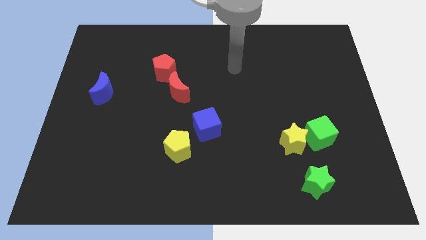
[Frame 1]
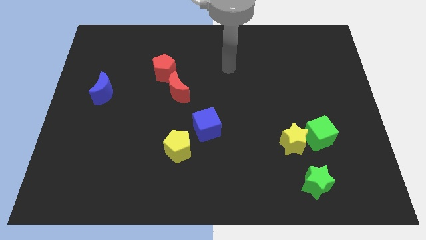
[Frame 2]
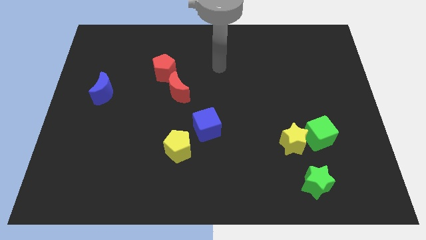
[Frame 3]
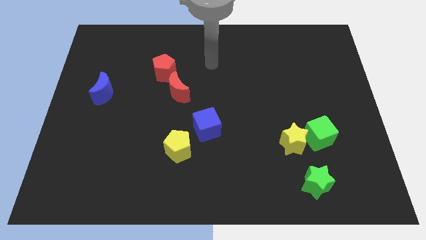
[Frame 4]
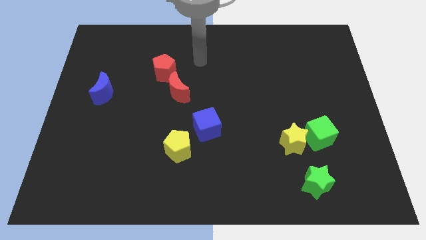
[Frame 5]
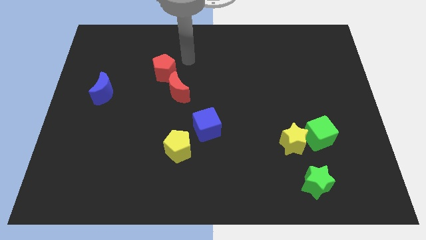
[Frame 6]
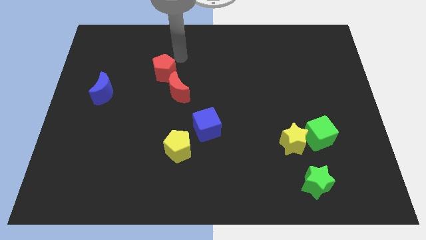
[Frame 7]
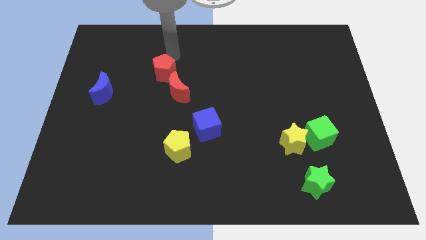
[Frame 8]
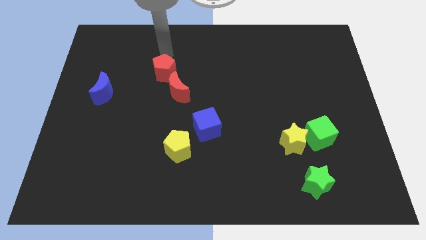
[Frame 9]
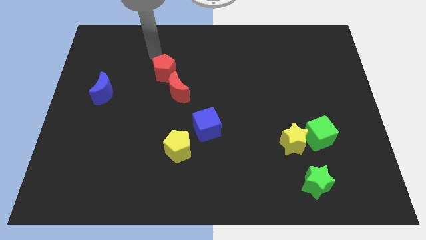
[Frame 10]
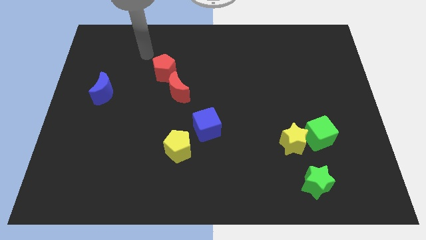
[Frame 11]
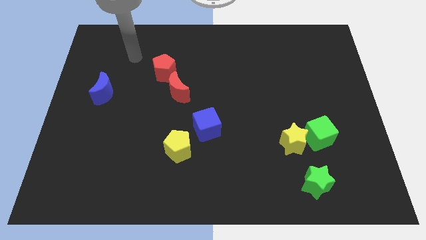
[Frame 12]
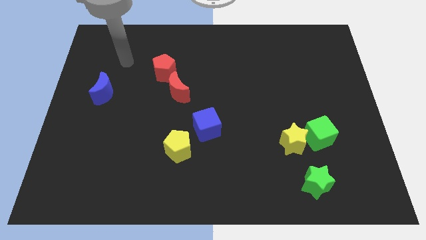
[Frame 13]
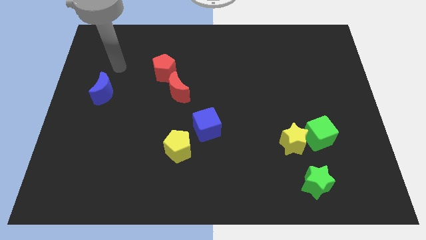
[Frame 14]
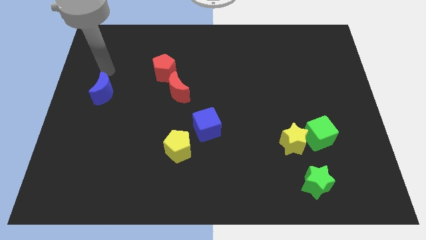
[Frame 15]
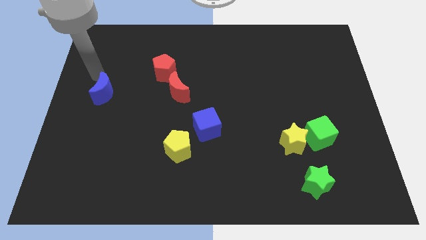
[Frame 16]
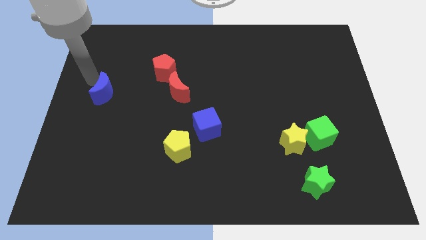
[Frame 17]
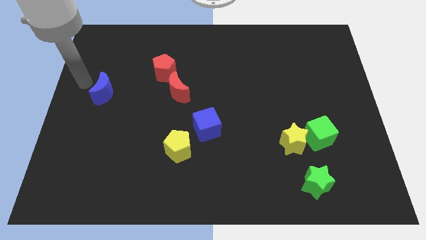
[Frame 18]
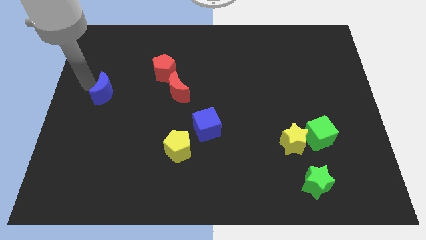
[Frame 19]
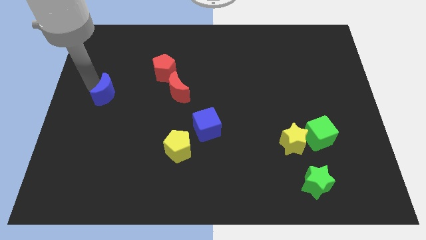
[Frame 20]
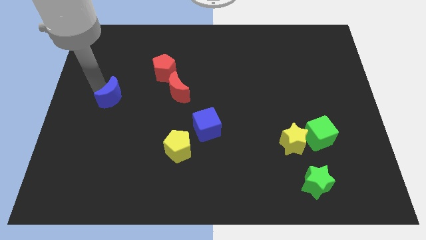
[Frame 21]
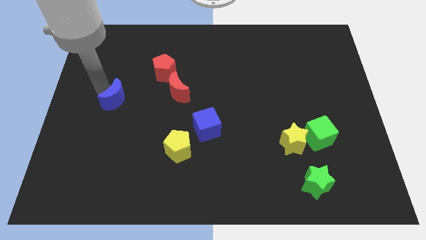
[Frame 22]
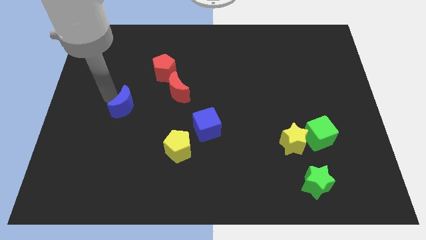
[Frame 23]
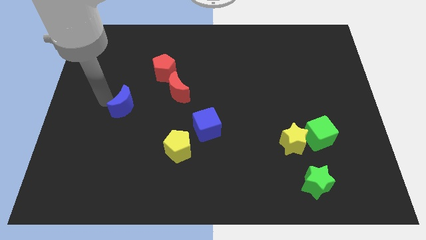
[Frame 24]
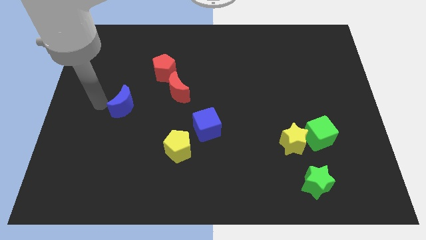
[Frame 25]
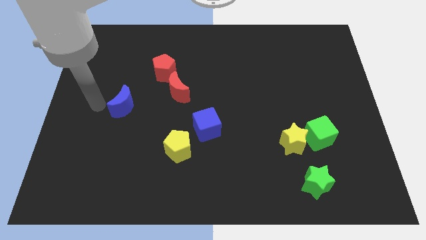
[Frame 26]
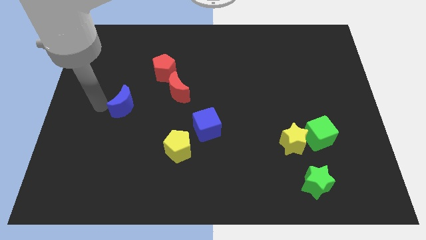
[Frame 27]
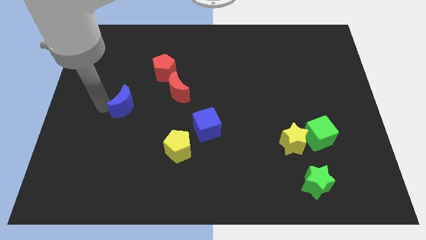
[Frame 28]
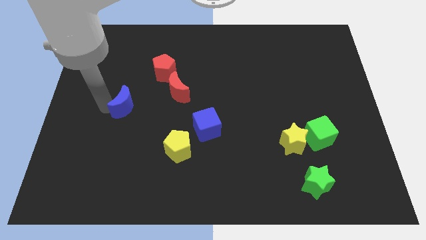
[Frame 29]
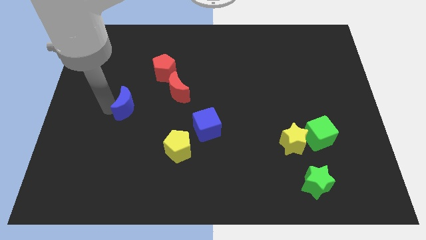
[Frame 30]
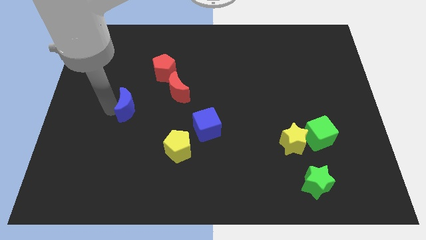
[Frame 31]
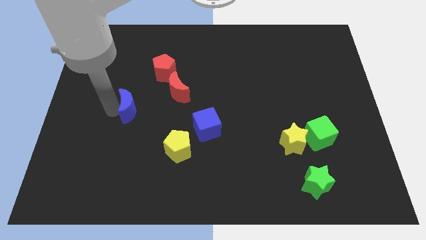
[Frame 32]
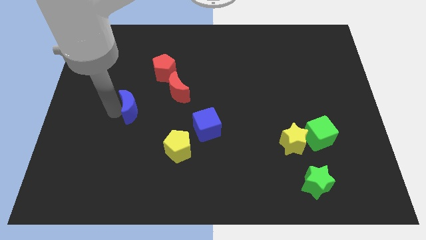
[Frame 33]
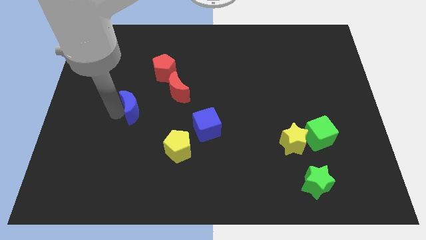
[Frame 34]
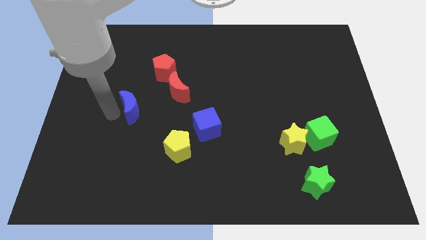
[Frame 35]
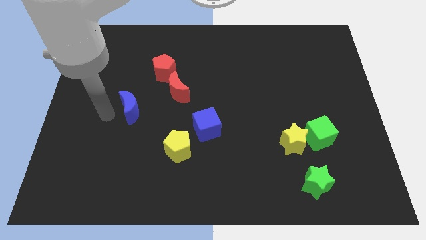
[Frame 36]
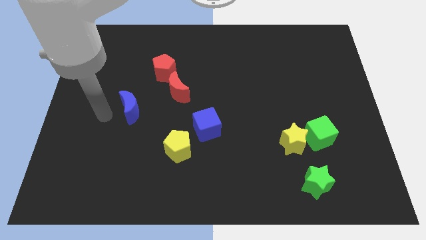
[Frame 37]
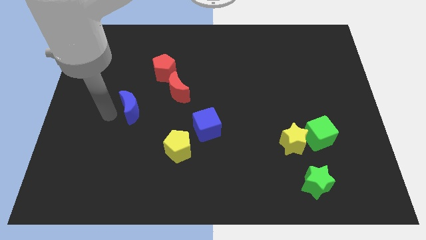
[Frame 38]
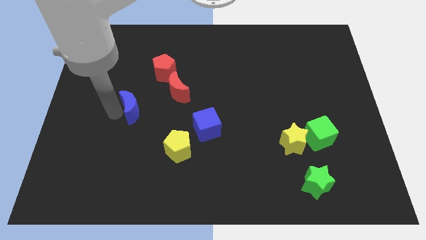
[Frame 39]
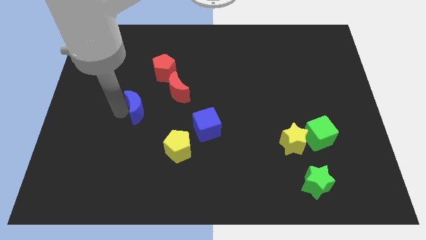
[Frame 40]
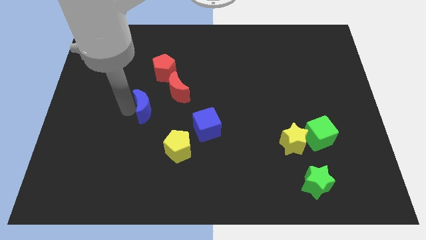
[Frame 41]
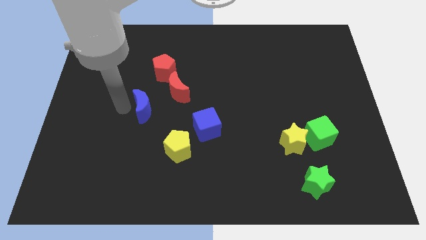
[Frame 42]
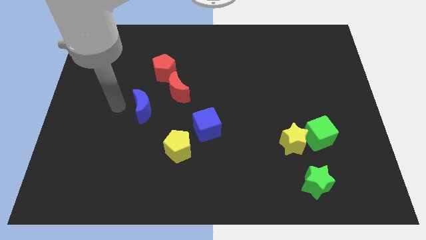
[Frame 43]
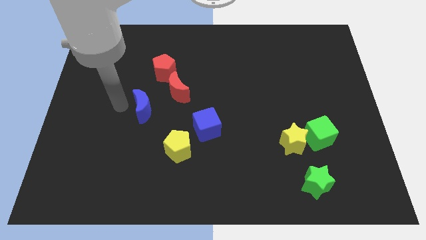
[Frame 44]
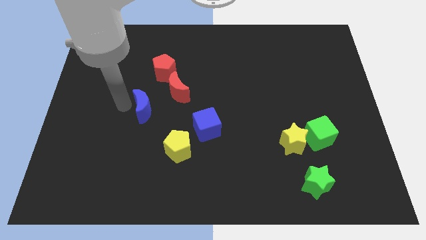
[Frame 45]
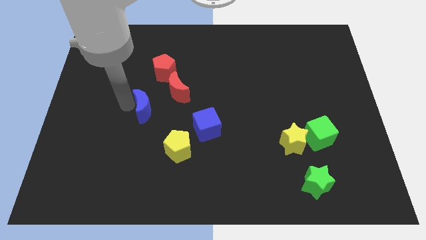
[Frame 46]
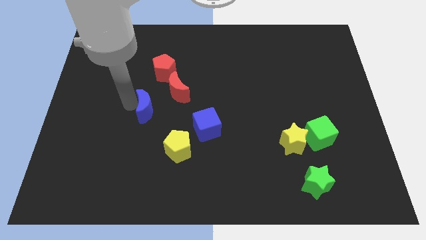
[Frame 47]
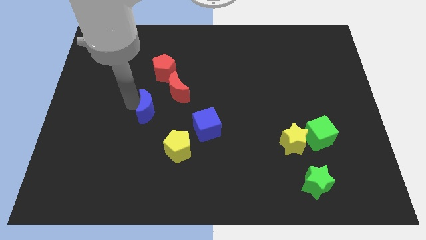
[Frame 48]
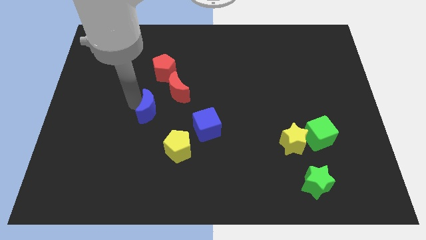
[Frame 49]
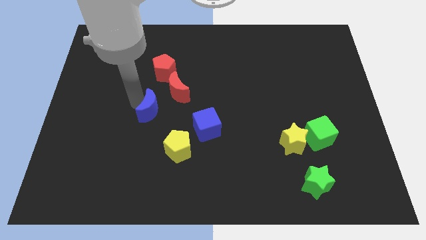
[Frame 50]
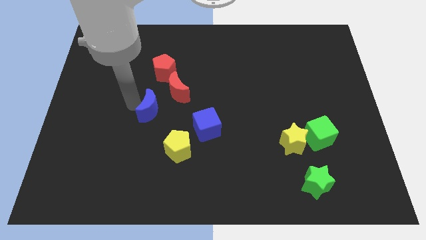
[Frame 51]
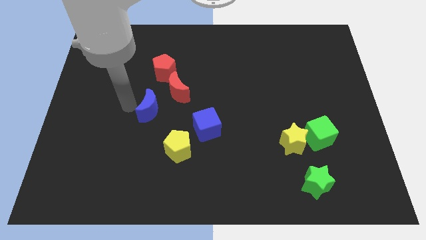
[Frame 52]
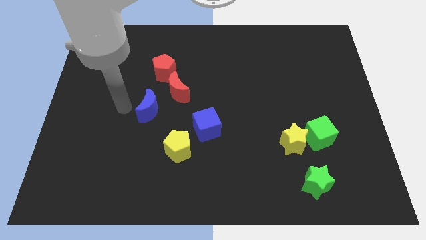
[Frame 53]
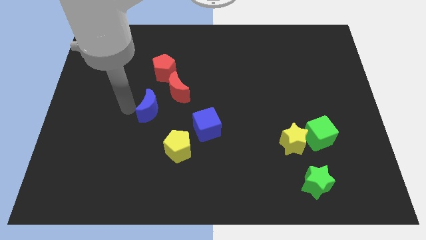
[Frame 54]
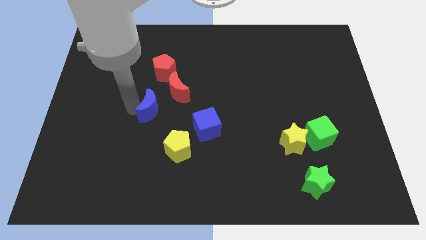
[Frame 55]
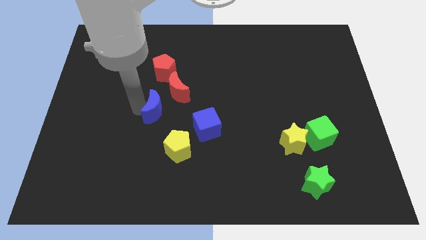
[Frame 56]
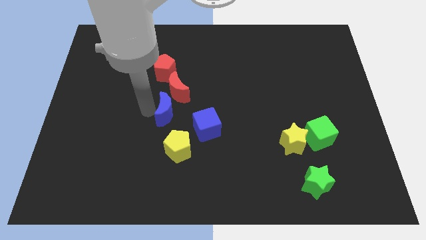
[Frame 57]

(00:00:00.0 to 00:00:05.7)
move the blue moon to the middle of the board

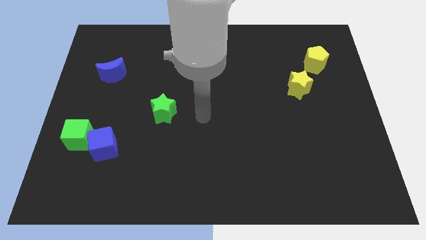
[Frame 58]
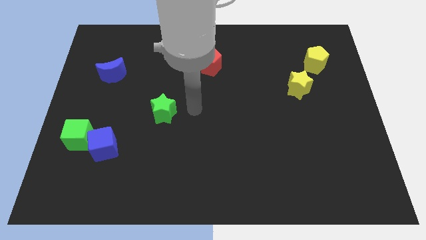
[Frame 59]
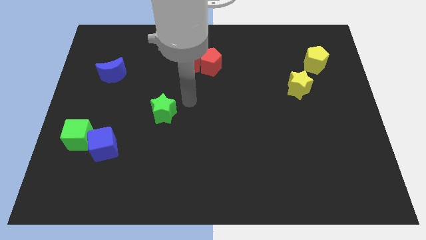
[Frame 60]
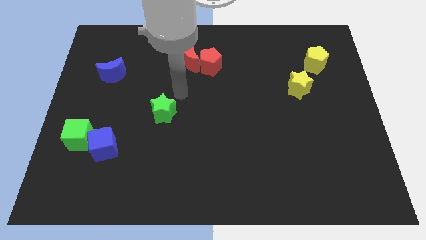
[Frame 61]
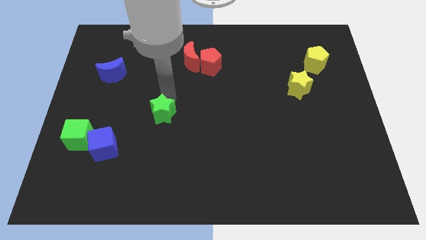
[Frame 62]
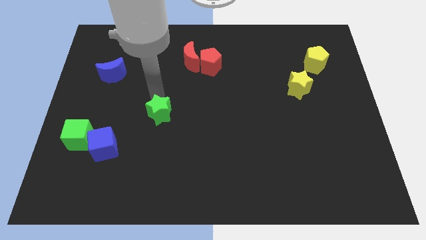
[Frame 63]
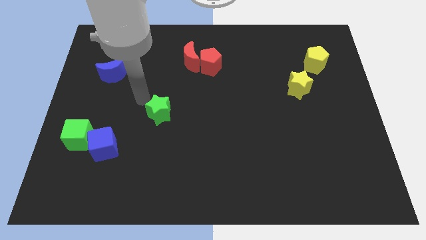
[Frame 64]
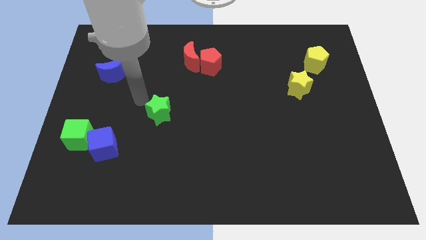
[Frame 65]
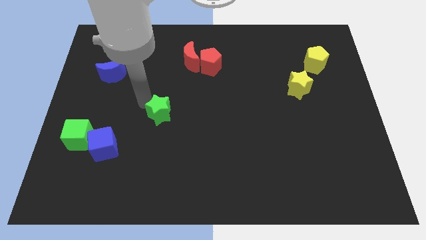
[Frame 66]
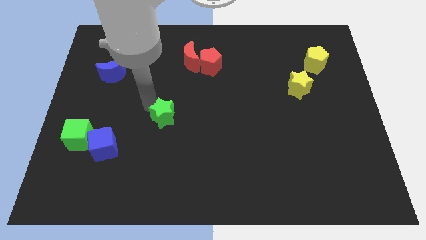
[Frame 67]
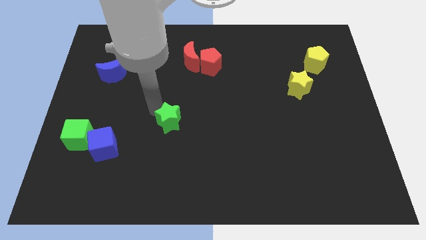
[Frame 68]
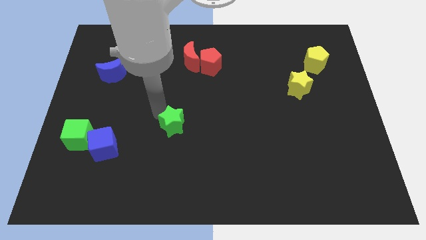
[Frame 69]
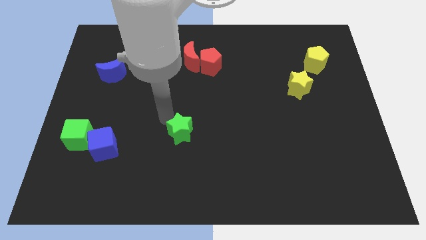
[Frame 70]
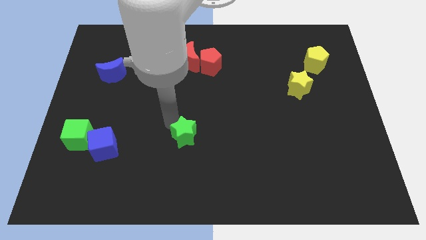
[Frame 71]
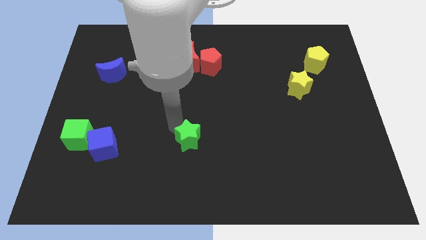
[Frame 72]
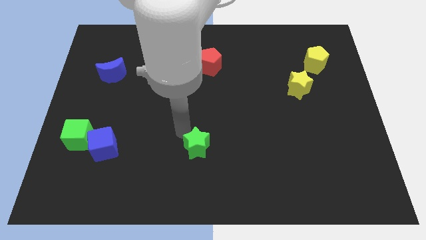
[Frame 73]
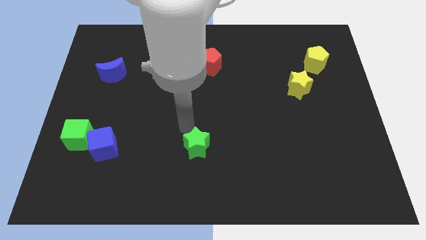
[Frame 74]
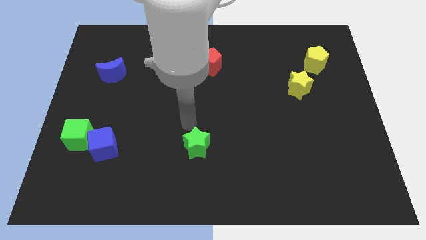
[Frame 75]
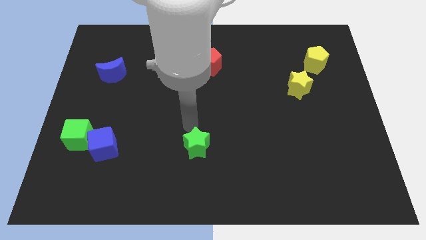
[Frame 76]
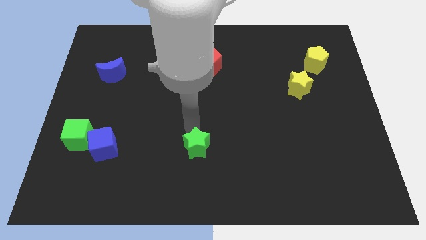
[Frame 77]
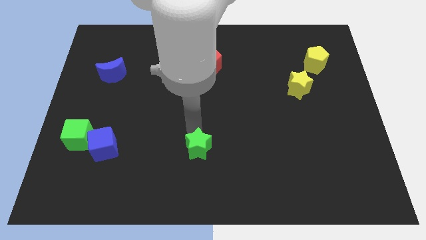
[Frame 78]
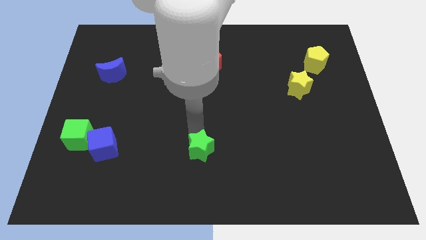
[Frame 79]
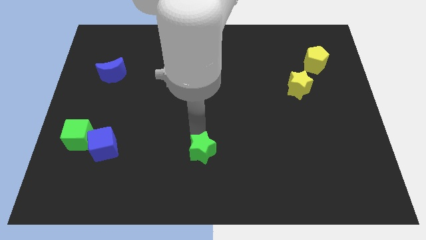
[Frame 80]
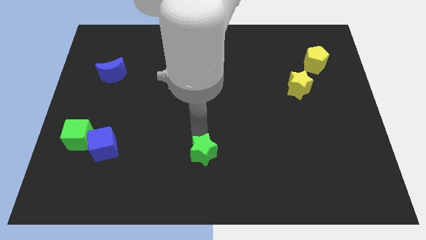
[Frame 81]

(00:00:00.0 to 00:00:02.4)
put the green star to the bottom side
